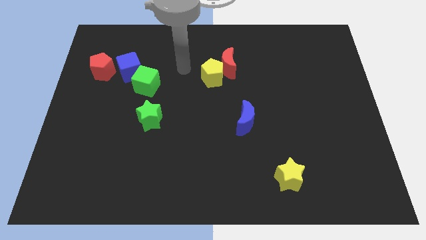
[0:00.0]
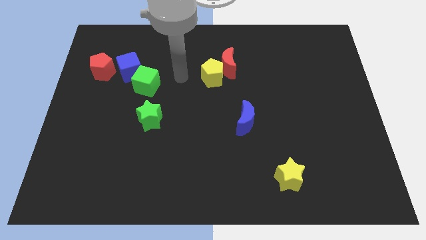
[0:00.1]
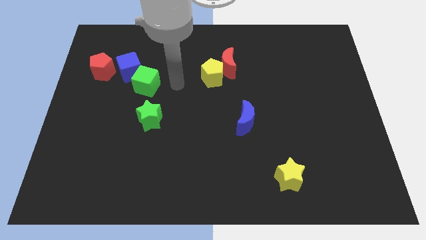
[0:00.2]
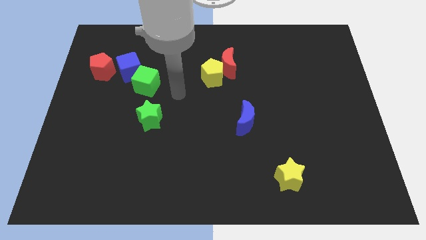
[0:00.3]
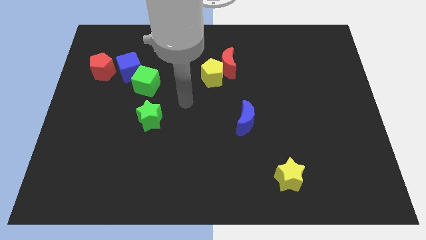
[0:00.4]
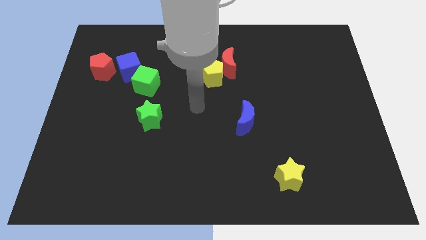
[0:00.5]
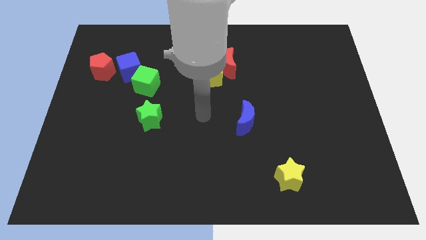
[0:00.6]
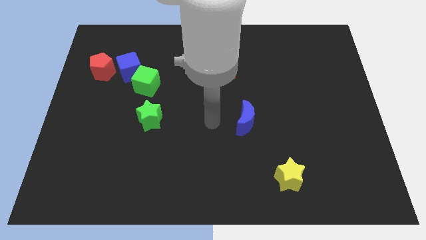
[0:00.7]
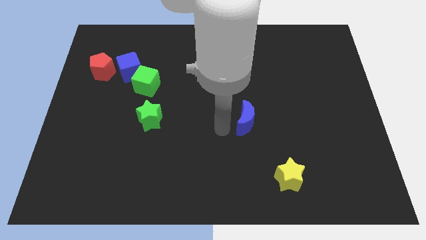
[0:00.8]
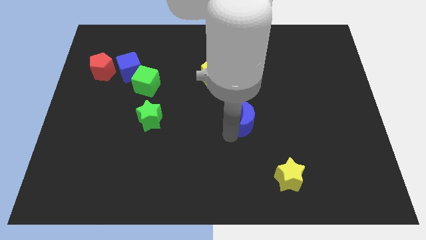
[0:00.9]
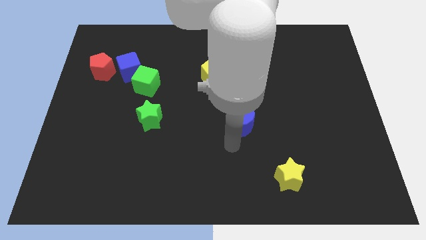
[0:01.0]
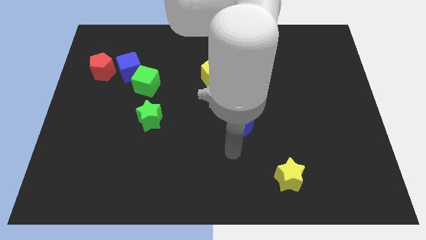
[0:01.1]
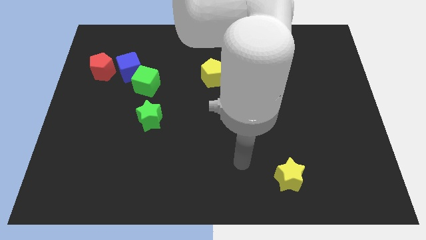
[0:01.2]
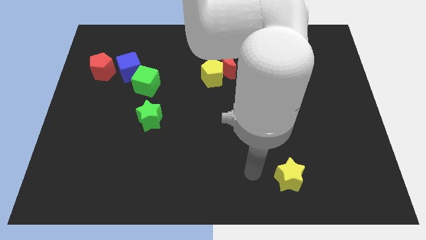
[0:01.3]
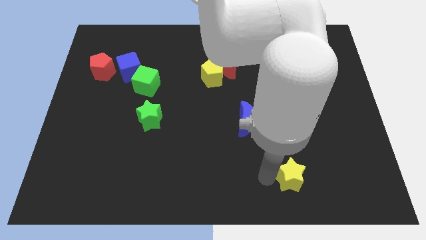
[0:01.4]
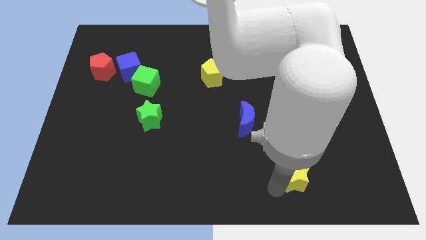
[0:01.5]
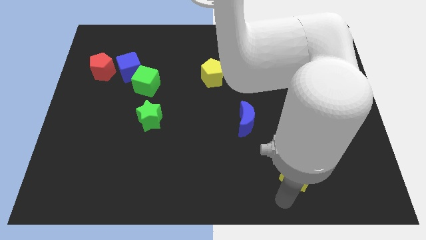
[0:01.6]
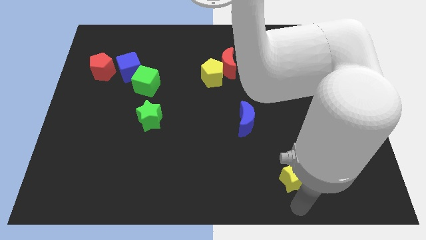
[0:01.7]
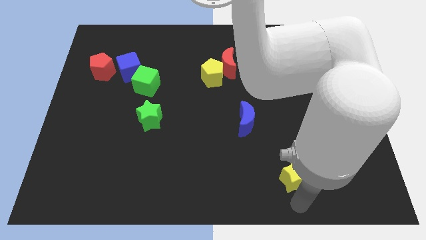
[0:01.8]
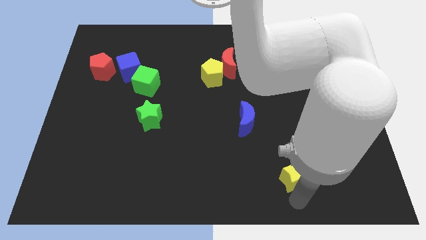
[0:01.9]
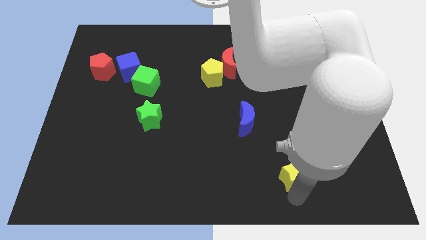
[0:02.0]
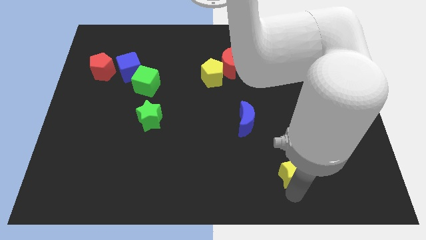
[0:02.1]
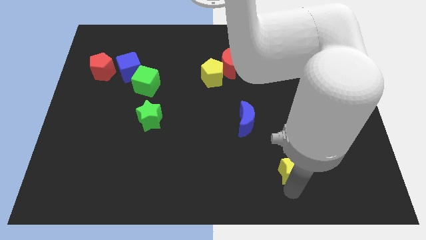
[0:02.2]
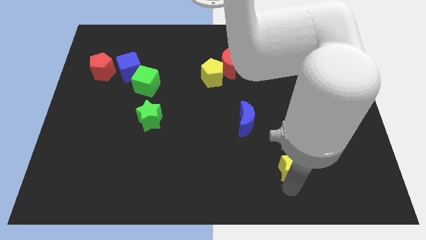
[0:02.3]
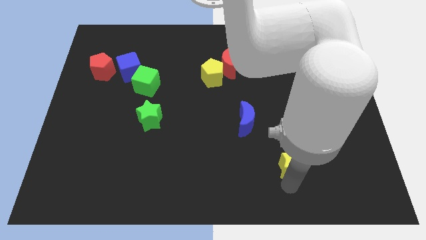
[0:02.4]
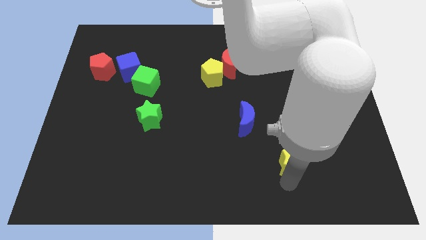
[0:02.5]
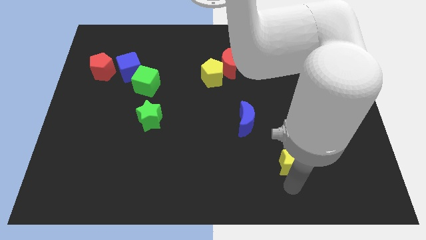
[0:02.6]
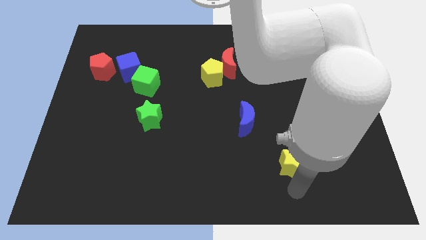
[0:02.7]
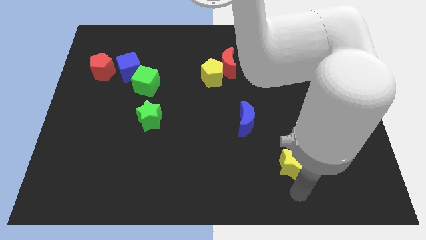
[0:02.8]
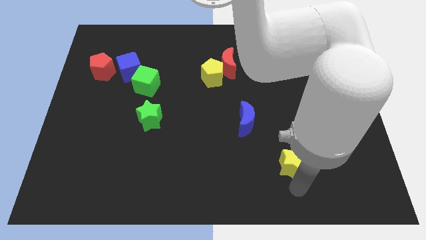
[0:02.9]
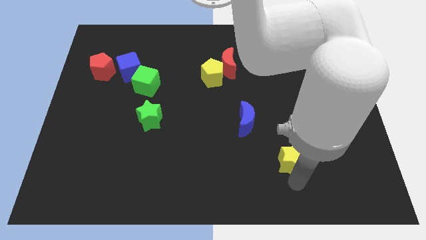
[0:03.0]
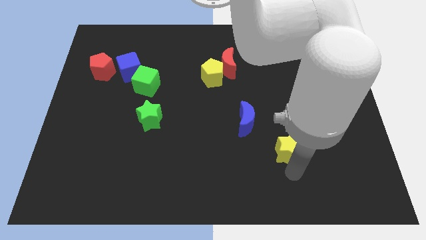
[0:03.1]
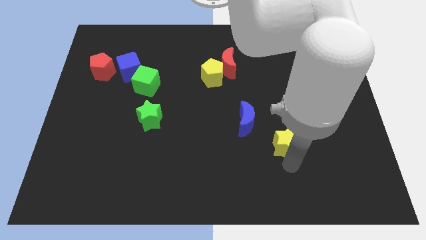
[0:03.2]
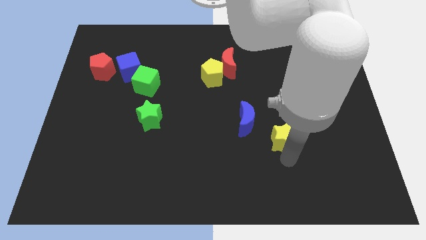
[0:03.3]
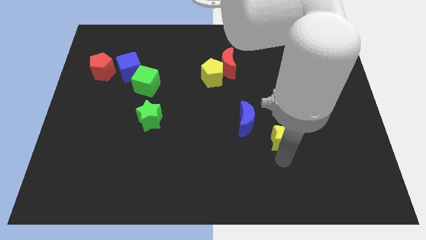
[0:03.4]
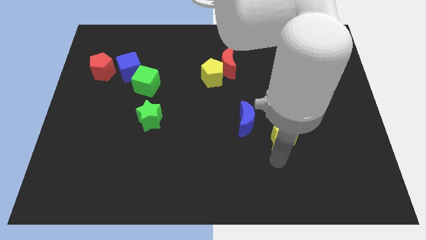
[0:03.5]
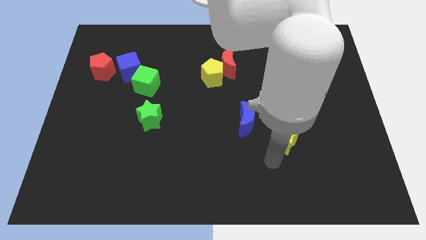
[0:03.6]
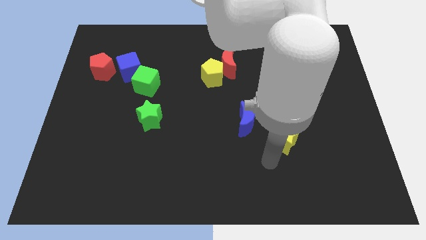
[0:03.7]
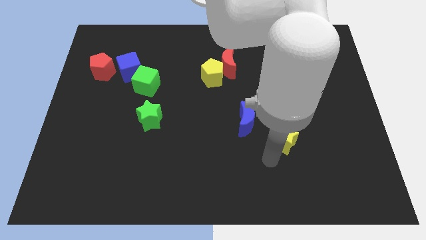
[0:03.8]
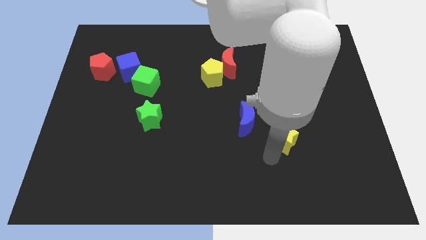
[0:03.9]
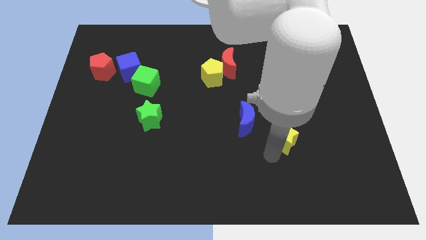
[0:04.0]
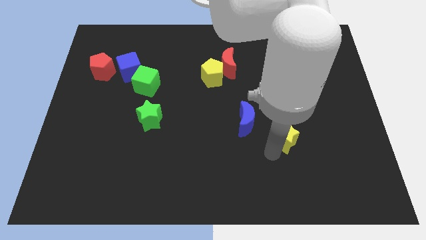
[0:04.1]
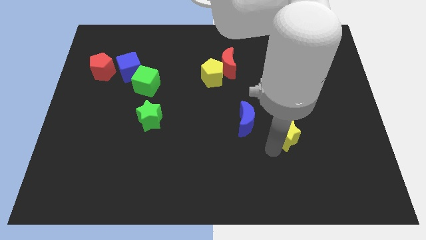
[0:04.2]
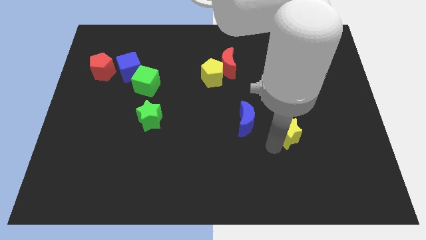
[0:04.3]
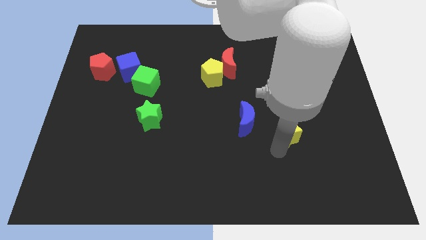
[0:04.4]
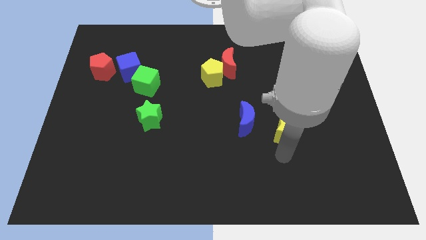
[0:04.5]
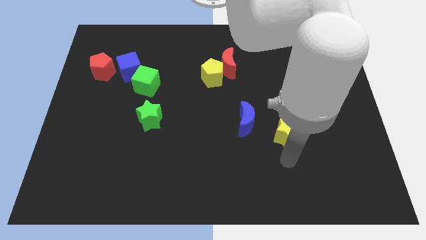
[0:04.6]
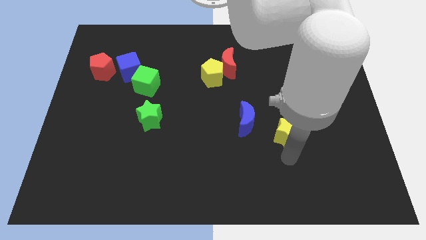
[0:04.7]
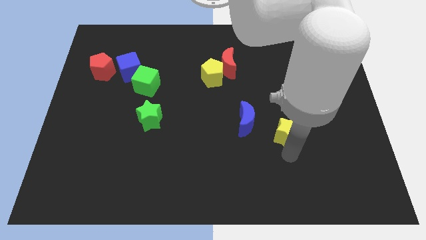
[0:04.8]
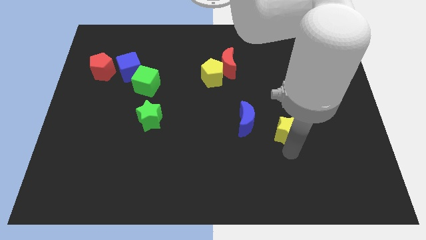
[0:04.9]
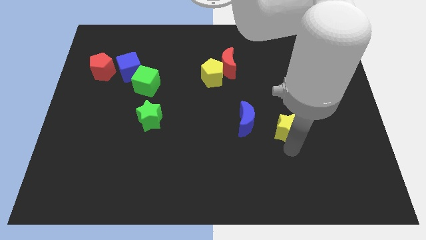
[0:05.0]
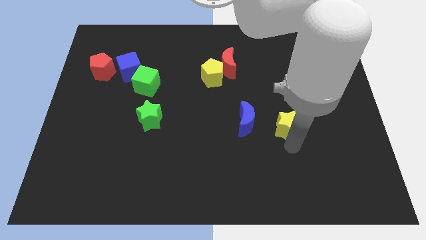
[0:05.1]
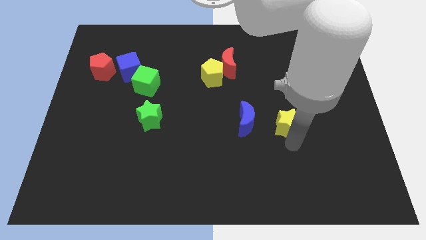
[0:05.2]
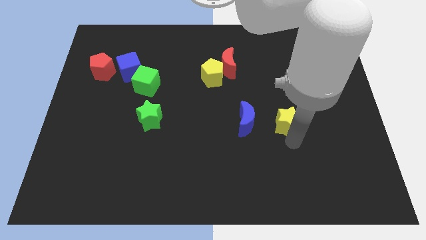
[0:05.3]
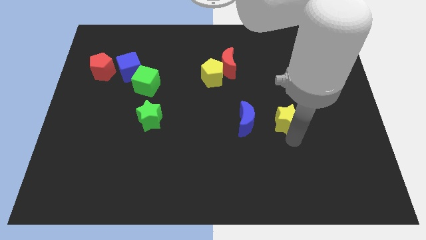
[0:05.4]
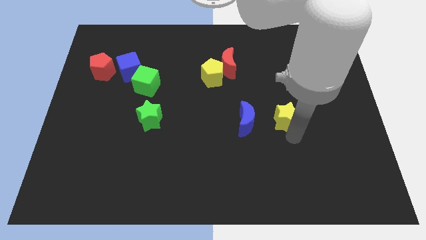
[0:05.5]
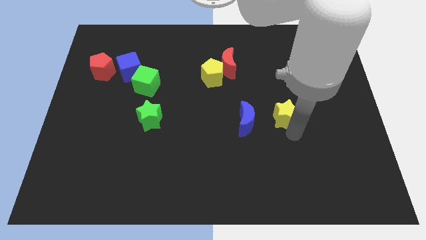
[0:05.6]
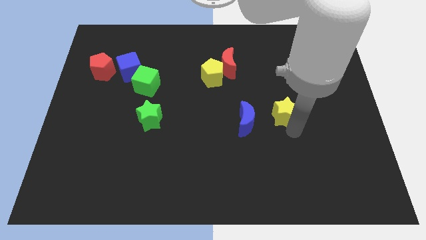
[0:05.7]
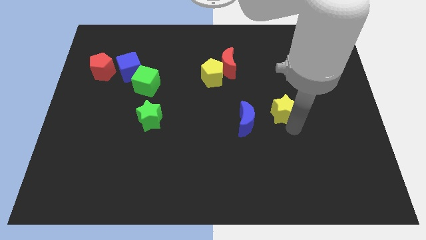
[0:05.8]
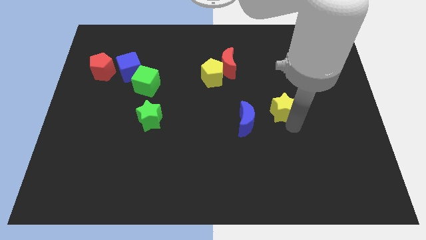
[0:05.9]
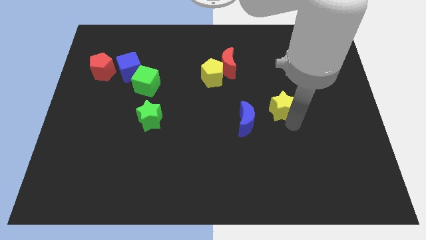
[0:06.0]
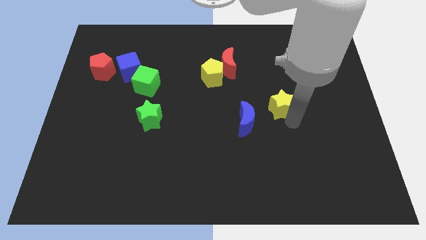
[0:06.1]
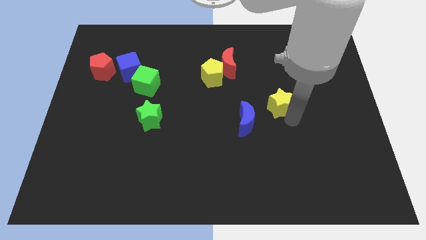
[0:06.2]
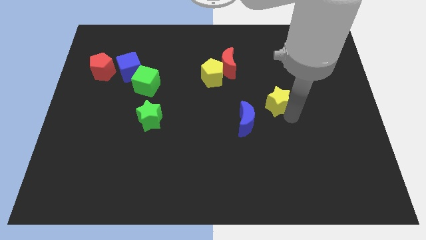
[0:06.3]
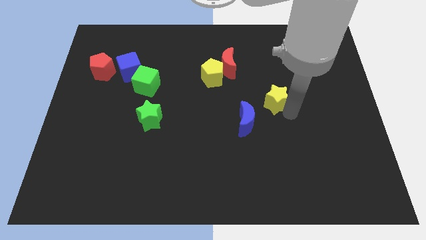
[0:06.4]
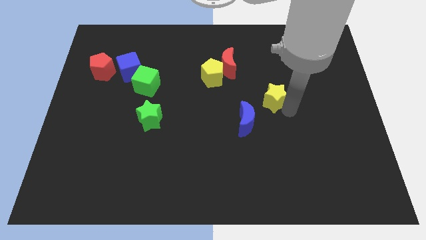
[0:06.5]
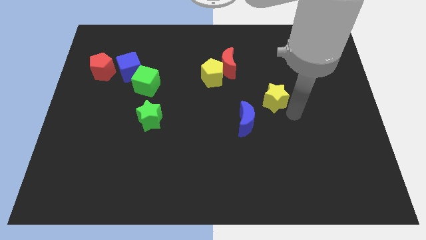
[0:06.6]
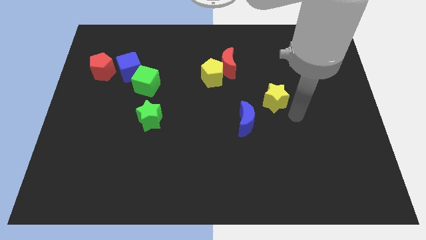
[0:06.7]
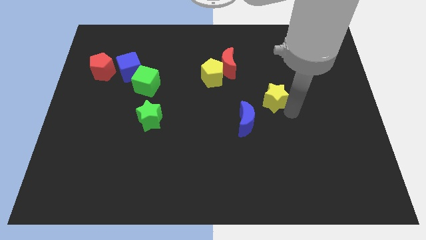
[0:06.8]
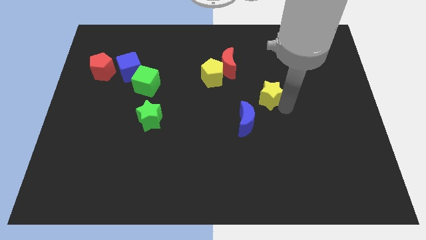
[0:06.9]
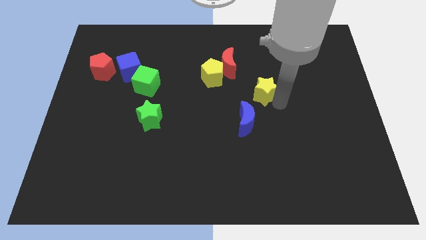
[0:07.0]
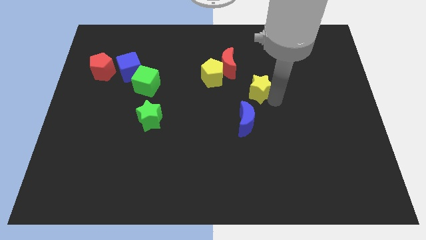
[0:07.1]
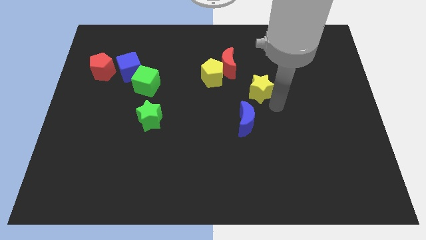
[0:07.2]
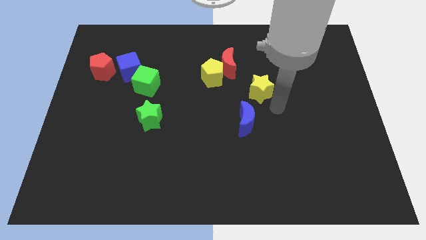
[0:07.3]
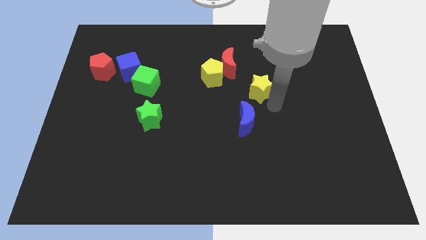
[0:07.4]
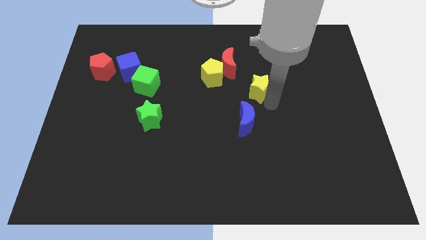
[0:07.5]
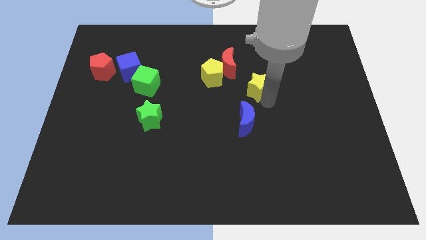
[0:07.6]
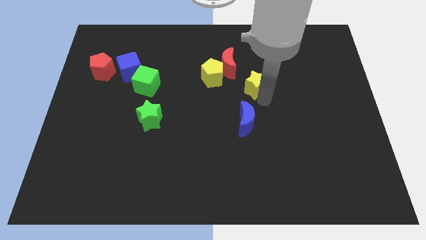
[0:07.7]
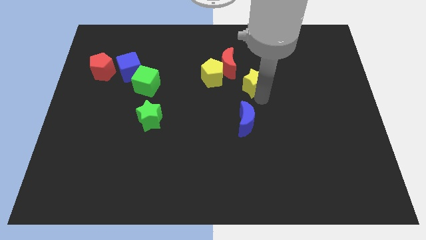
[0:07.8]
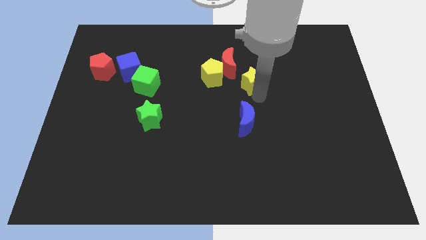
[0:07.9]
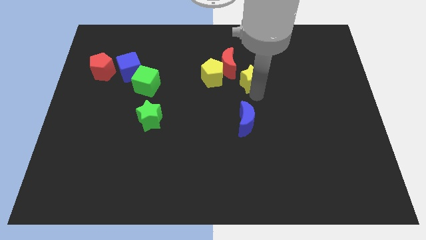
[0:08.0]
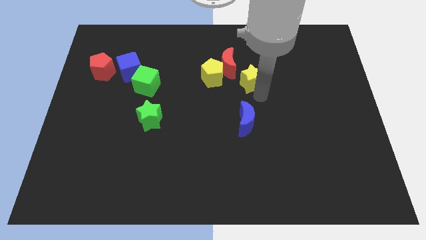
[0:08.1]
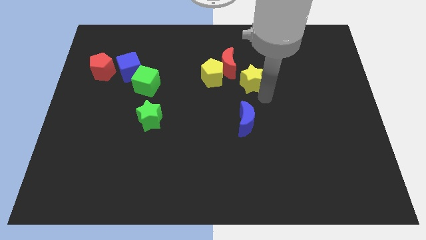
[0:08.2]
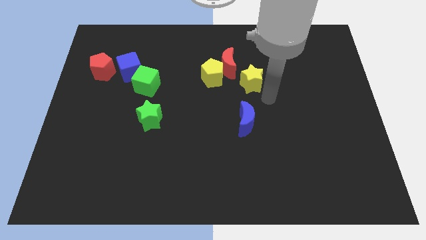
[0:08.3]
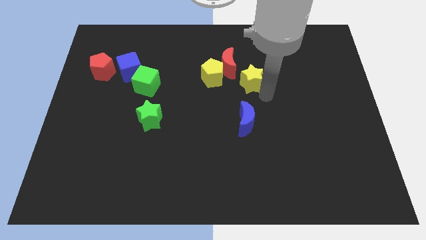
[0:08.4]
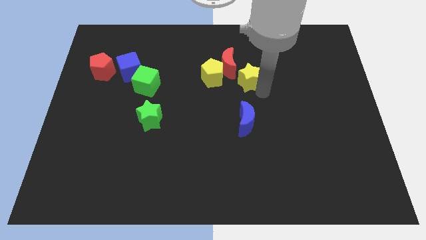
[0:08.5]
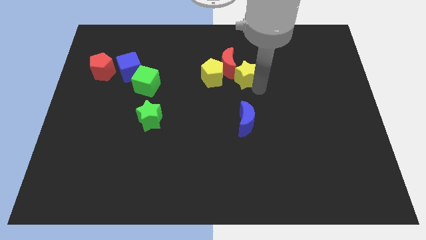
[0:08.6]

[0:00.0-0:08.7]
move the yellow star next to the red moon
